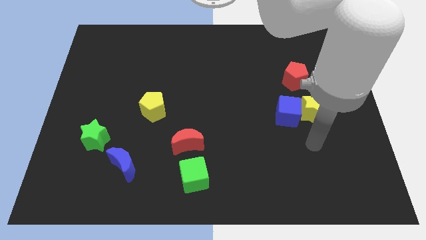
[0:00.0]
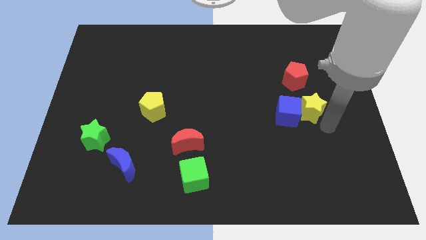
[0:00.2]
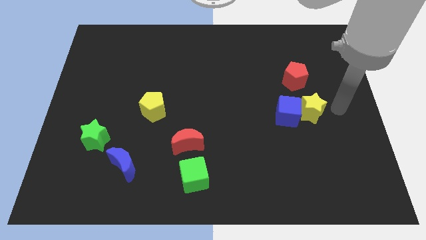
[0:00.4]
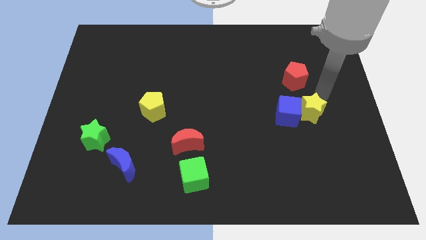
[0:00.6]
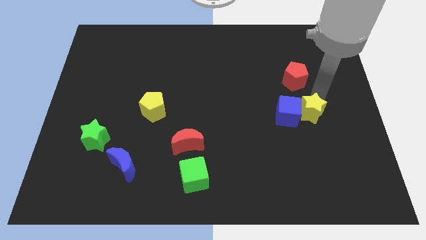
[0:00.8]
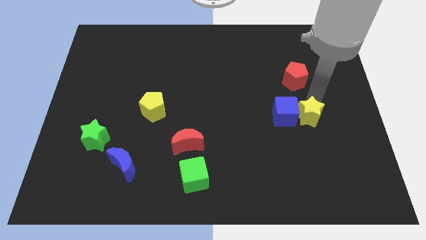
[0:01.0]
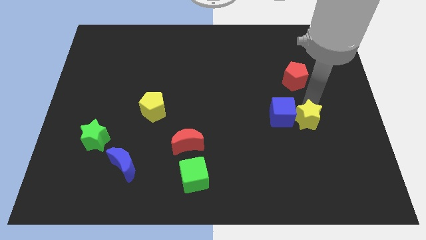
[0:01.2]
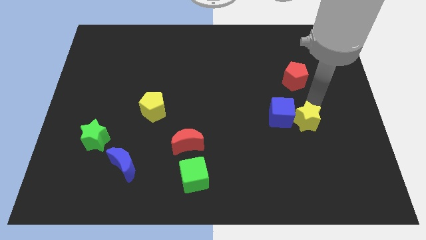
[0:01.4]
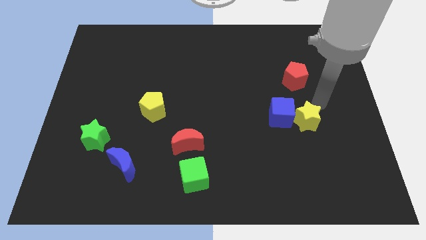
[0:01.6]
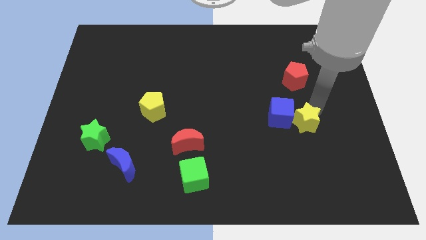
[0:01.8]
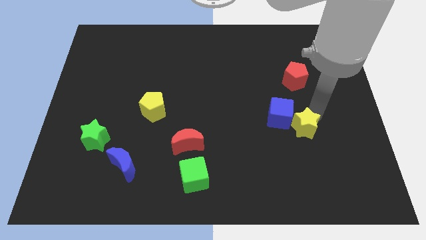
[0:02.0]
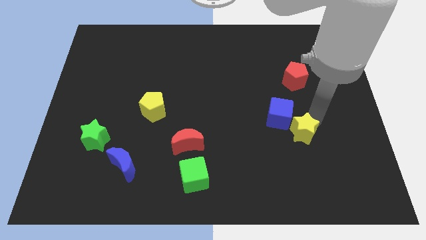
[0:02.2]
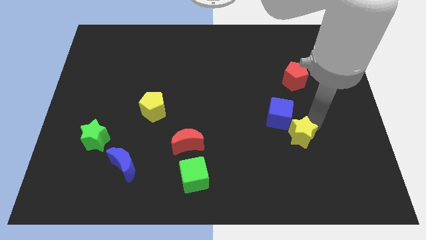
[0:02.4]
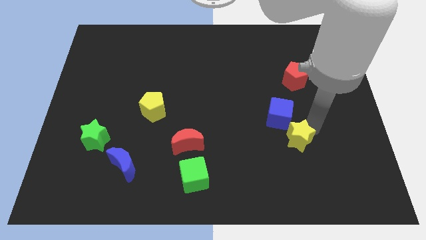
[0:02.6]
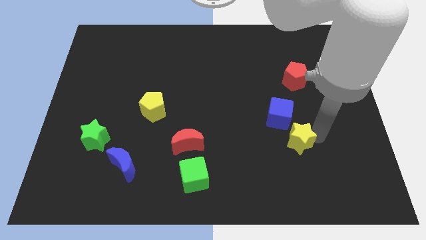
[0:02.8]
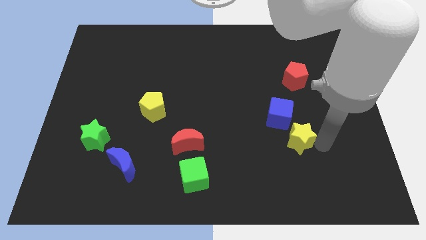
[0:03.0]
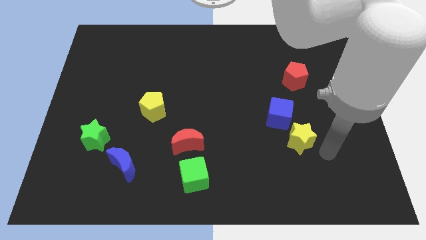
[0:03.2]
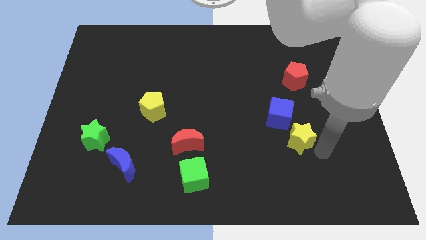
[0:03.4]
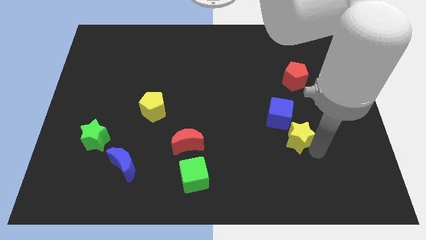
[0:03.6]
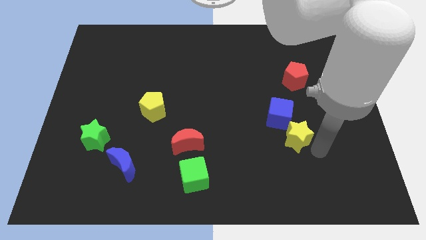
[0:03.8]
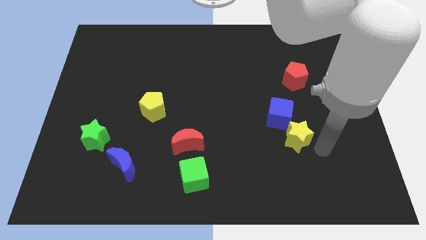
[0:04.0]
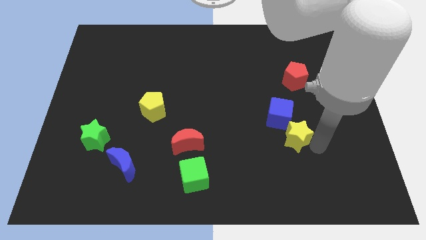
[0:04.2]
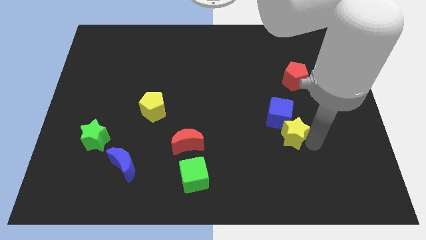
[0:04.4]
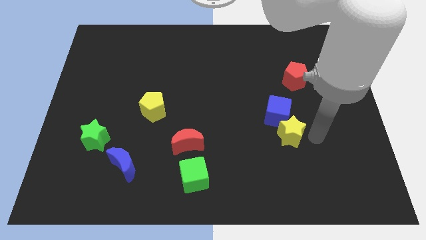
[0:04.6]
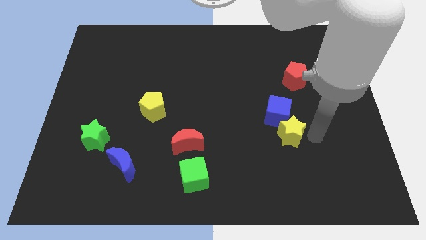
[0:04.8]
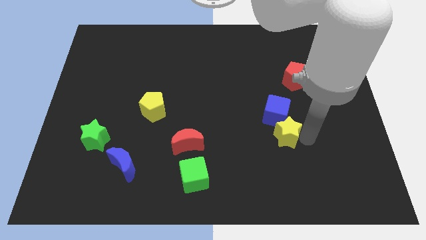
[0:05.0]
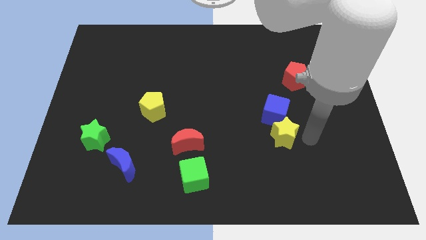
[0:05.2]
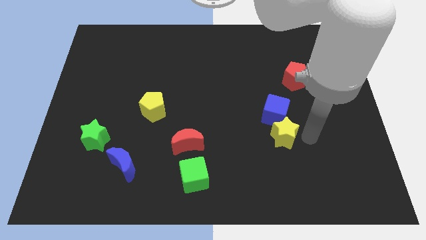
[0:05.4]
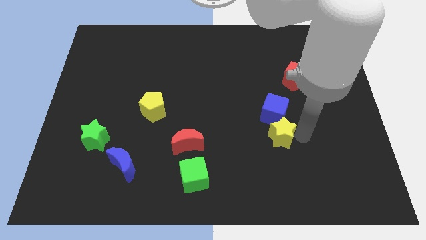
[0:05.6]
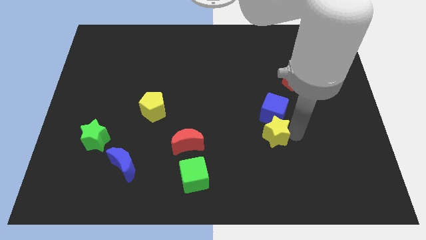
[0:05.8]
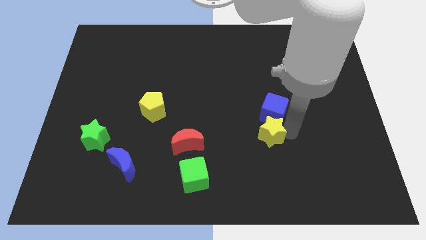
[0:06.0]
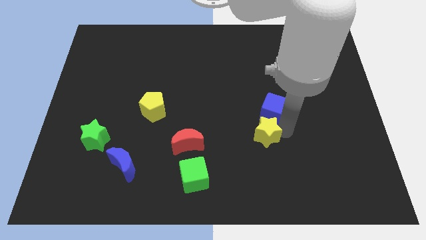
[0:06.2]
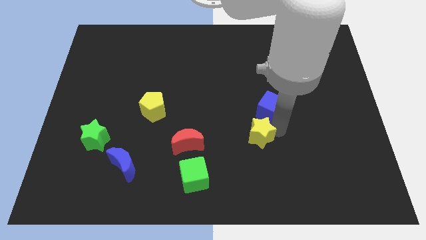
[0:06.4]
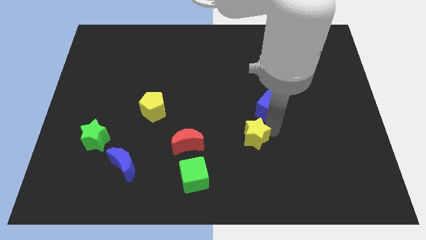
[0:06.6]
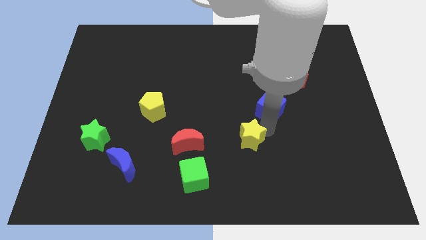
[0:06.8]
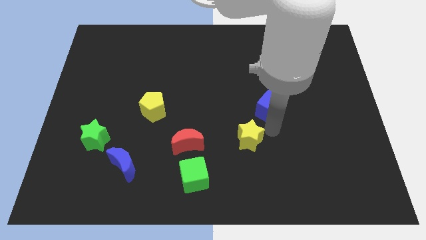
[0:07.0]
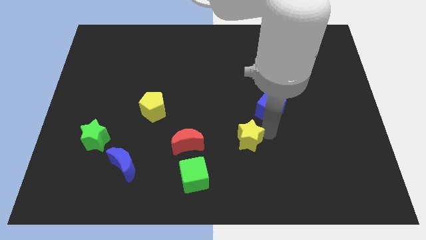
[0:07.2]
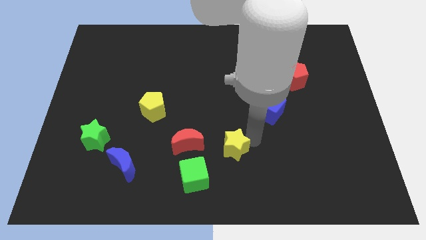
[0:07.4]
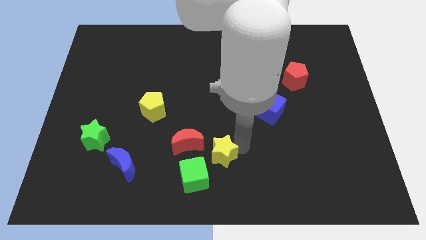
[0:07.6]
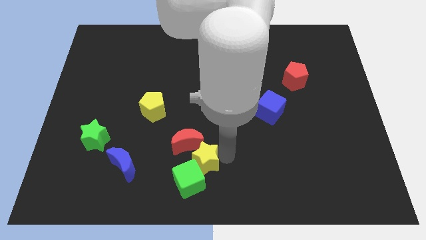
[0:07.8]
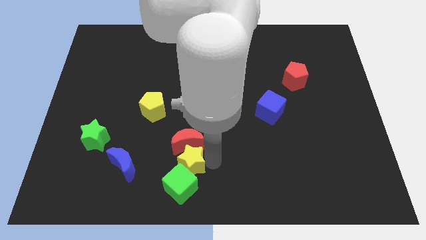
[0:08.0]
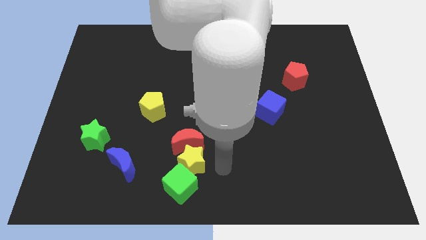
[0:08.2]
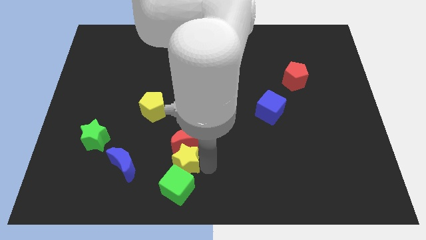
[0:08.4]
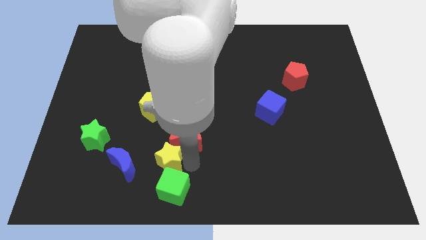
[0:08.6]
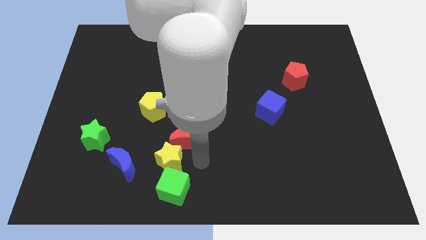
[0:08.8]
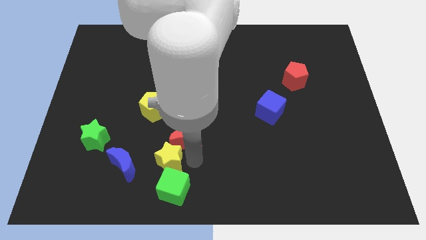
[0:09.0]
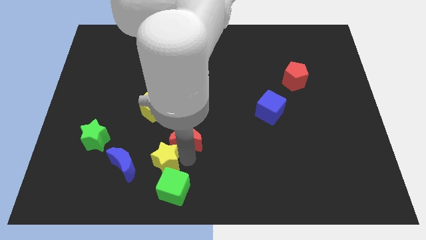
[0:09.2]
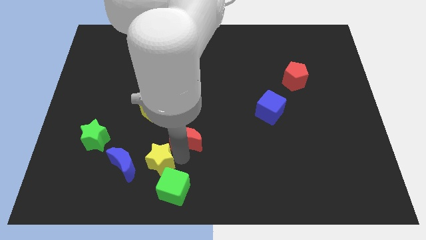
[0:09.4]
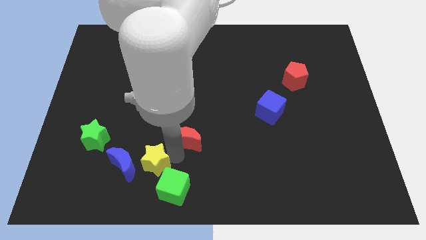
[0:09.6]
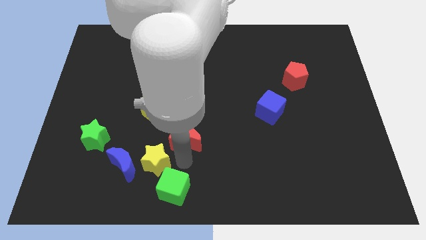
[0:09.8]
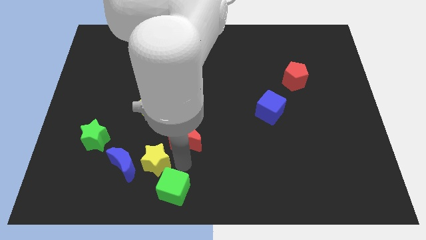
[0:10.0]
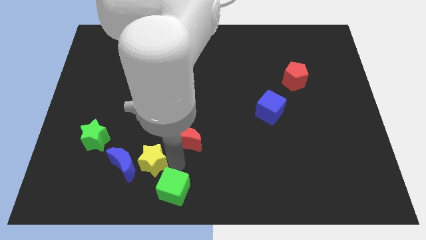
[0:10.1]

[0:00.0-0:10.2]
slide the yellow star towards the blue moon

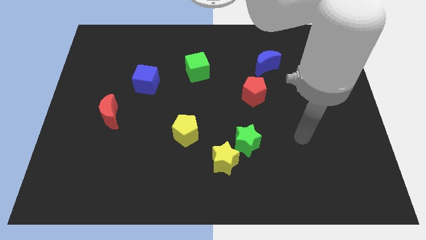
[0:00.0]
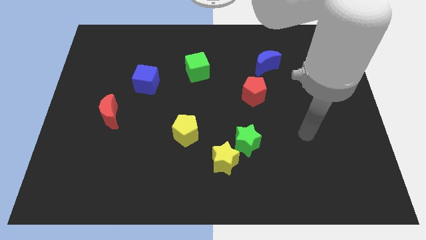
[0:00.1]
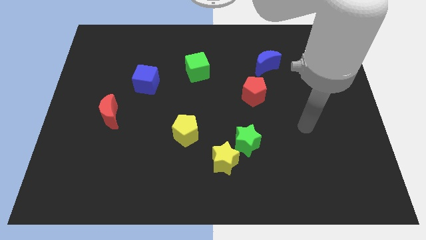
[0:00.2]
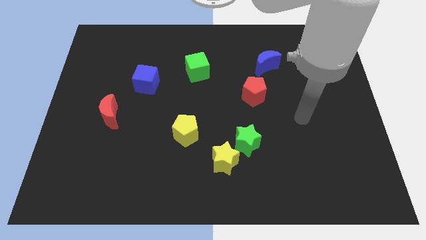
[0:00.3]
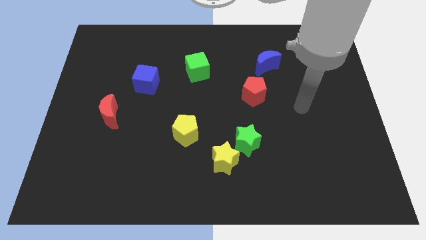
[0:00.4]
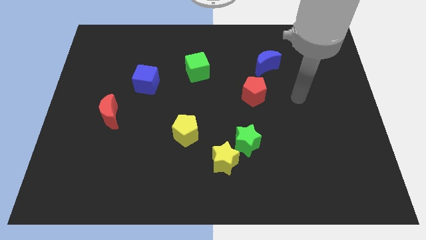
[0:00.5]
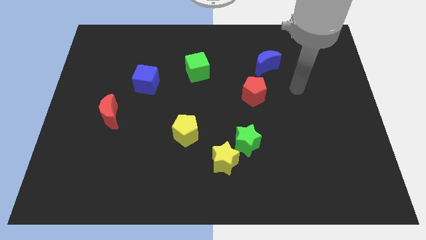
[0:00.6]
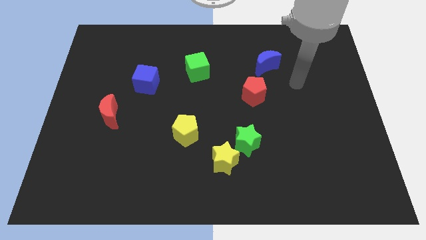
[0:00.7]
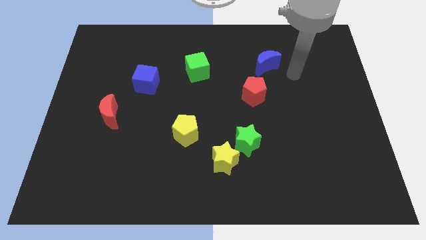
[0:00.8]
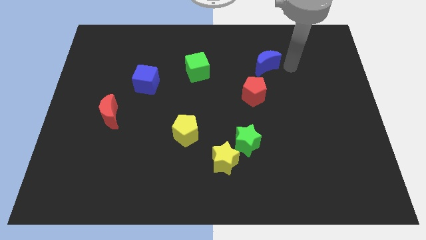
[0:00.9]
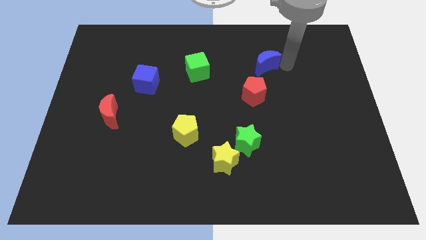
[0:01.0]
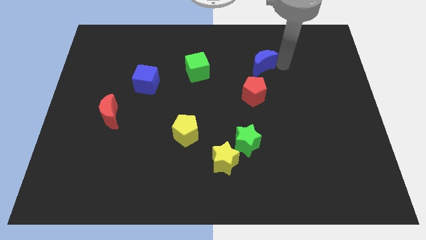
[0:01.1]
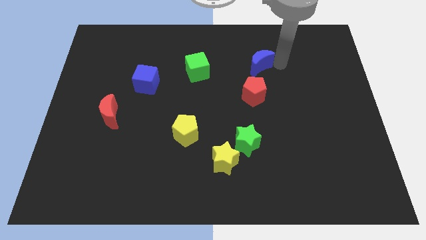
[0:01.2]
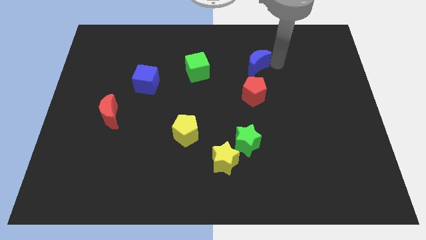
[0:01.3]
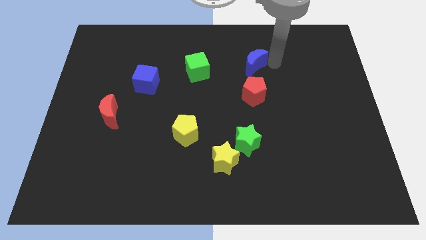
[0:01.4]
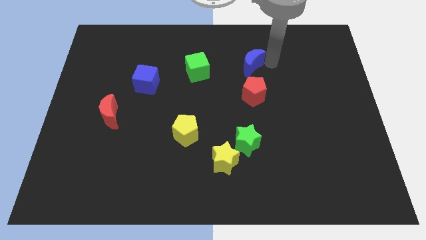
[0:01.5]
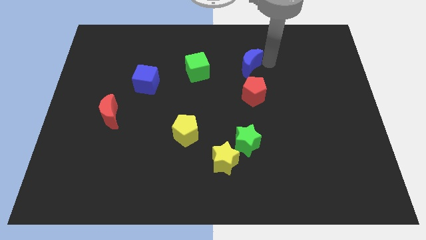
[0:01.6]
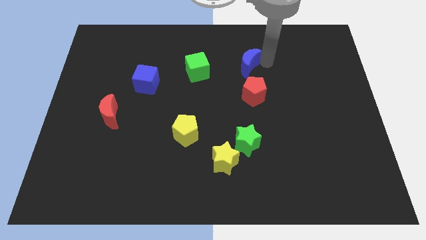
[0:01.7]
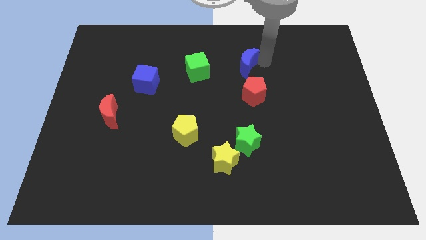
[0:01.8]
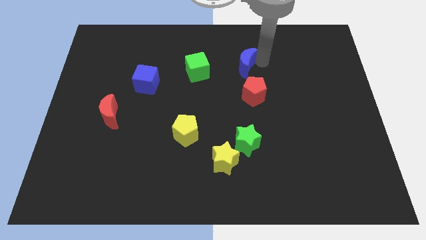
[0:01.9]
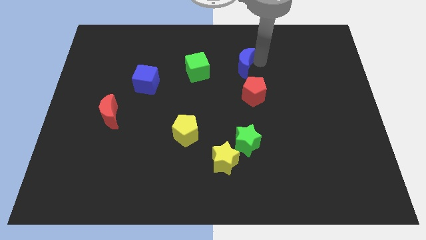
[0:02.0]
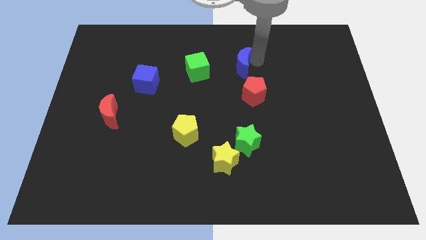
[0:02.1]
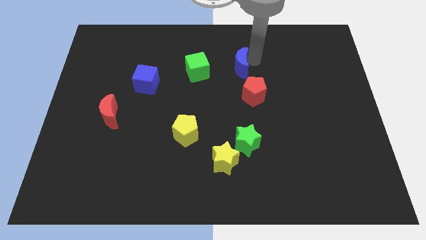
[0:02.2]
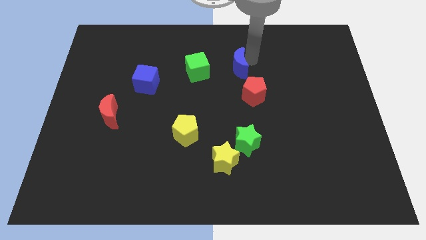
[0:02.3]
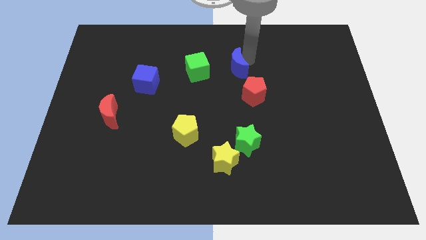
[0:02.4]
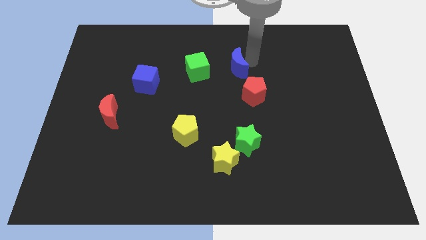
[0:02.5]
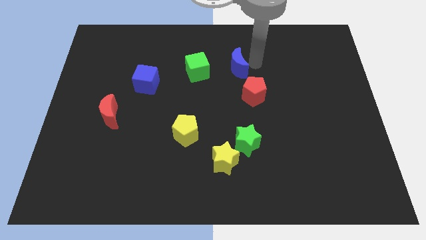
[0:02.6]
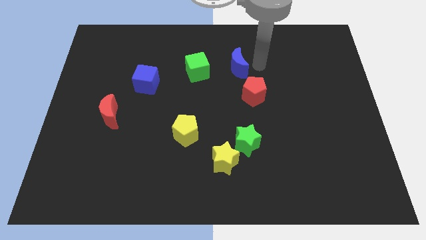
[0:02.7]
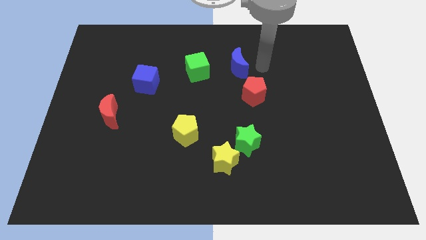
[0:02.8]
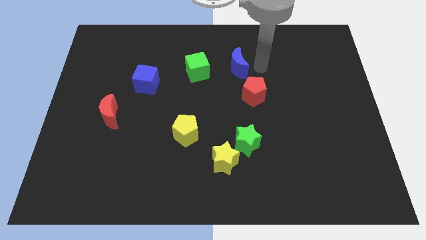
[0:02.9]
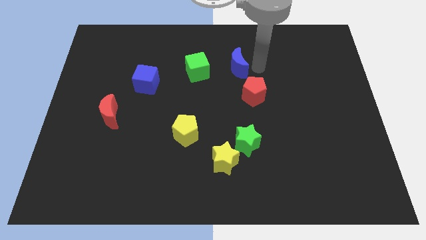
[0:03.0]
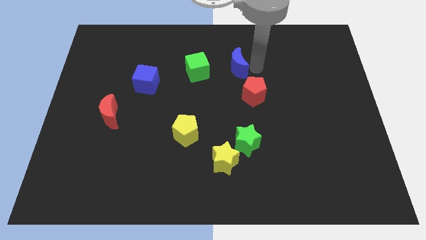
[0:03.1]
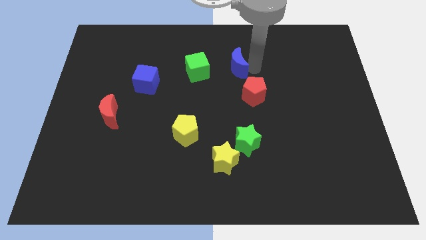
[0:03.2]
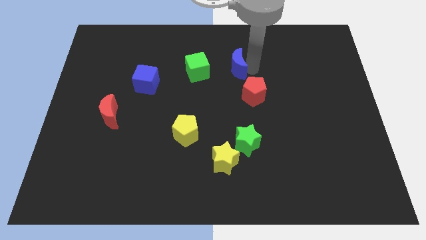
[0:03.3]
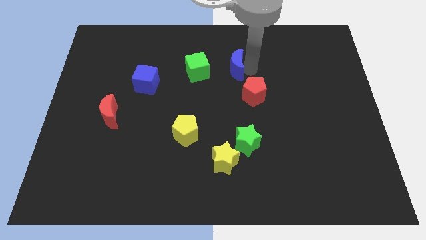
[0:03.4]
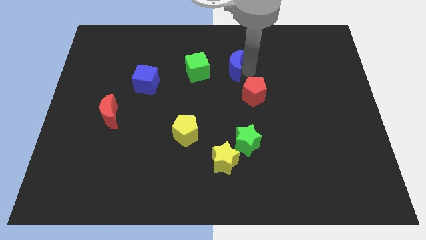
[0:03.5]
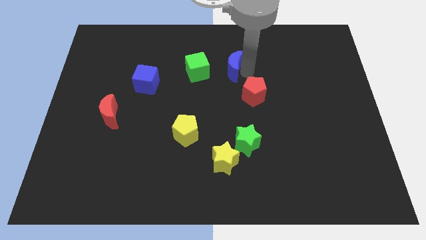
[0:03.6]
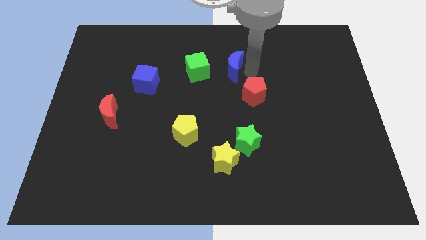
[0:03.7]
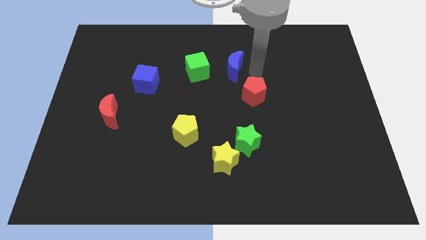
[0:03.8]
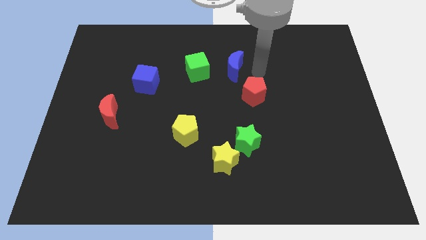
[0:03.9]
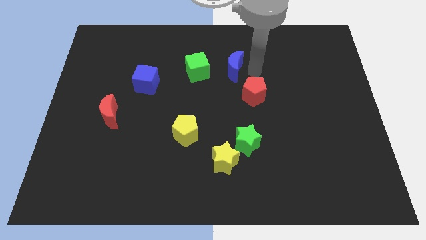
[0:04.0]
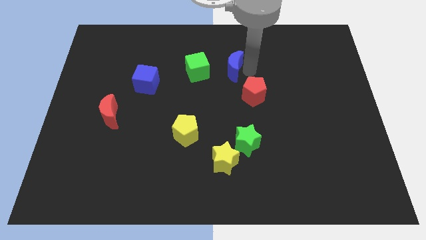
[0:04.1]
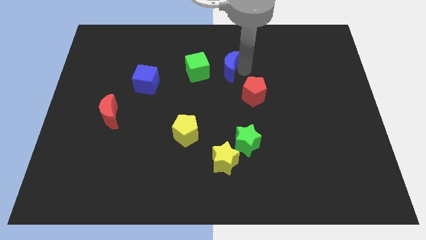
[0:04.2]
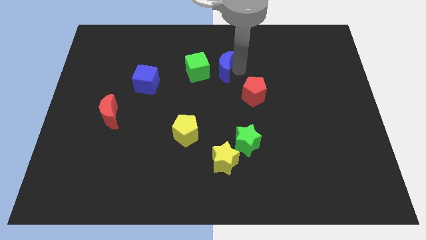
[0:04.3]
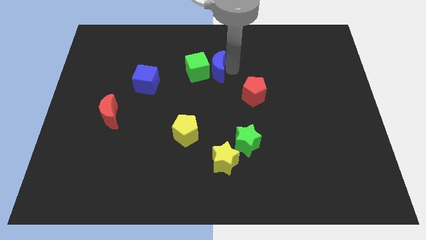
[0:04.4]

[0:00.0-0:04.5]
push the blue moon close to the green cube
